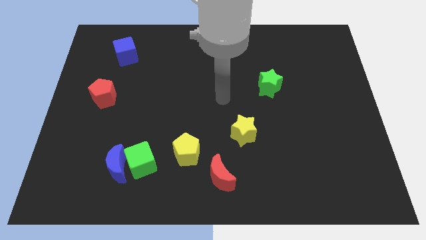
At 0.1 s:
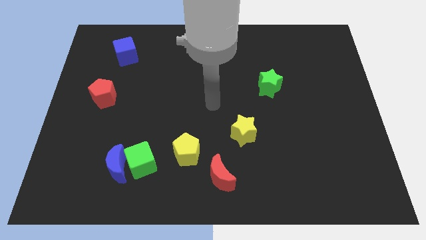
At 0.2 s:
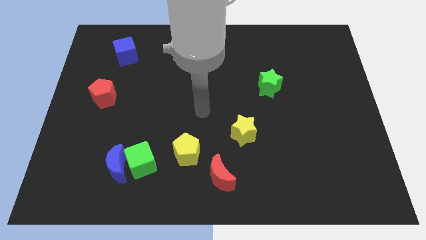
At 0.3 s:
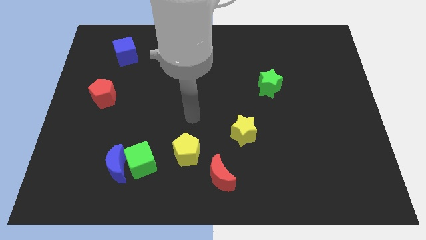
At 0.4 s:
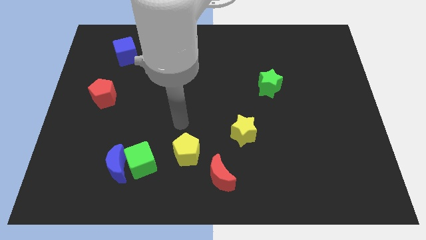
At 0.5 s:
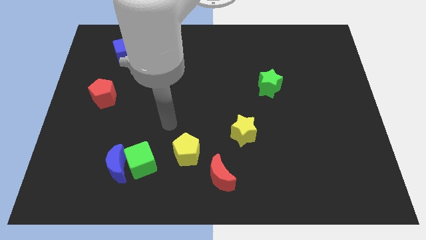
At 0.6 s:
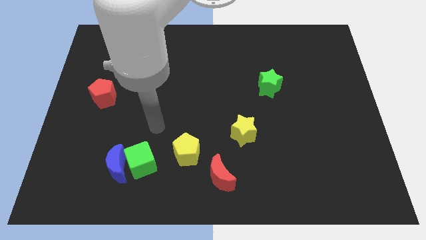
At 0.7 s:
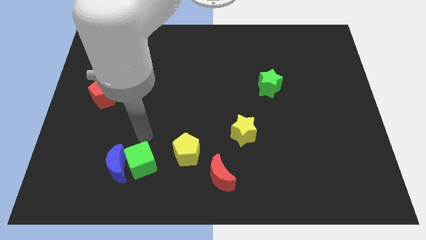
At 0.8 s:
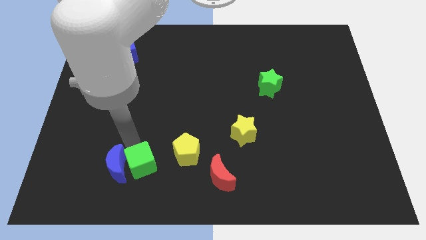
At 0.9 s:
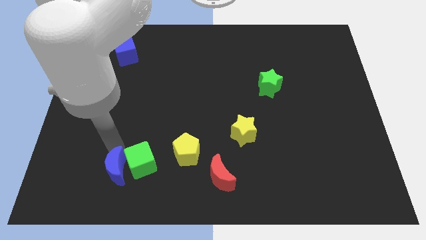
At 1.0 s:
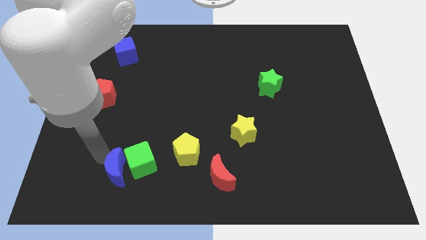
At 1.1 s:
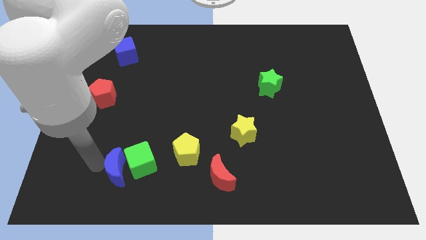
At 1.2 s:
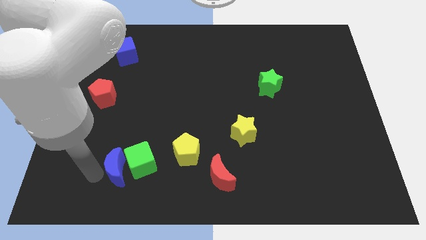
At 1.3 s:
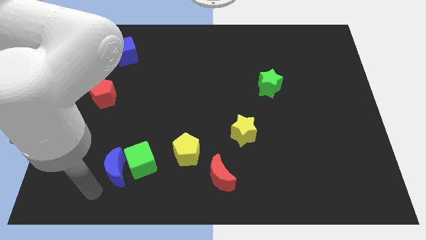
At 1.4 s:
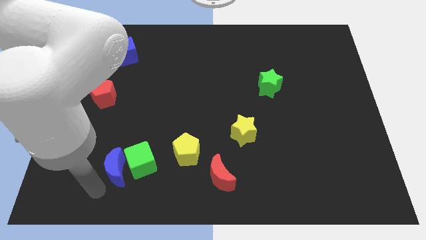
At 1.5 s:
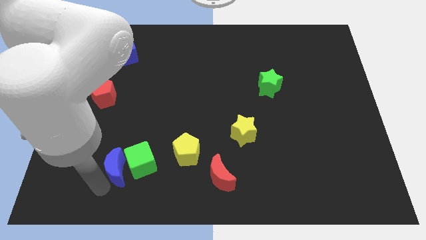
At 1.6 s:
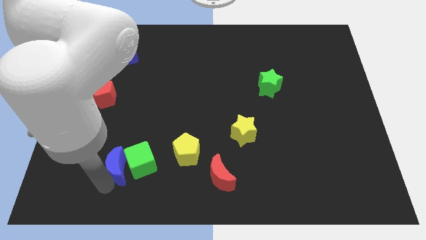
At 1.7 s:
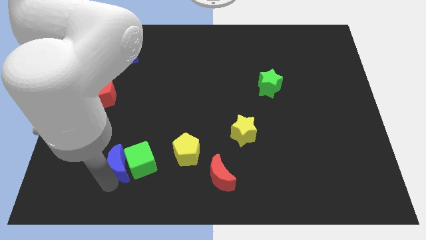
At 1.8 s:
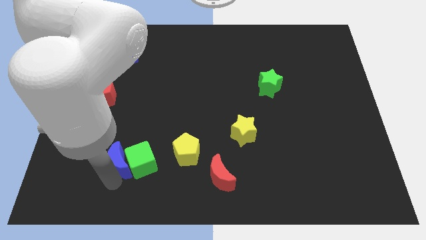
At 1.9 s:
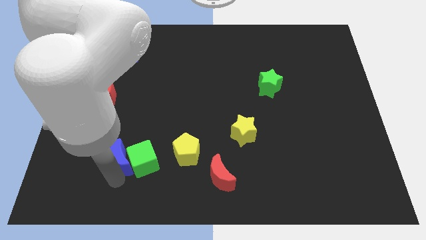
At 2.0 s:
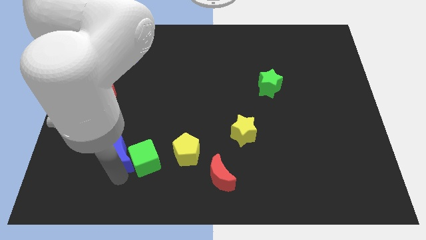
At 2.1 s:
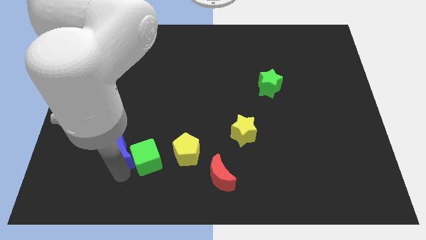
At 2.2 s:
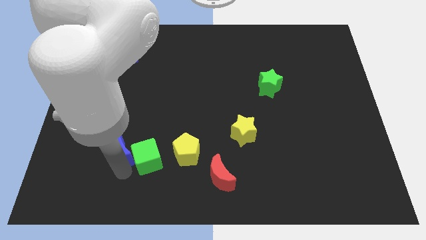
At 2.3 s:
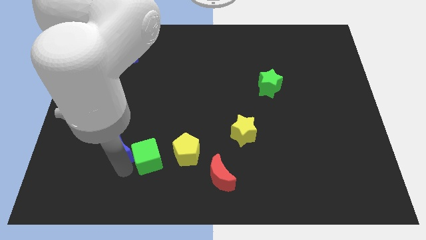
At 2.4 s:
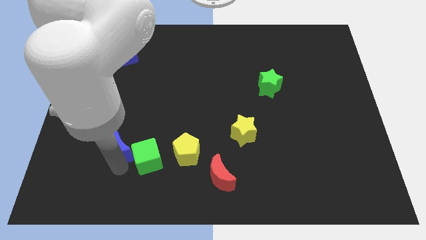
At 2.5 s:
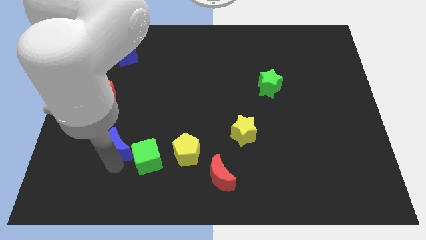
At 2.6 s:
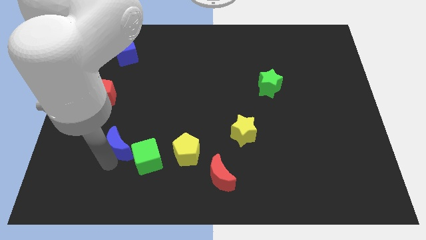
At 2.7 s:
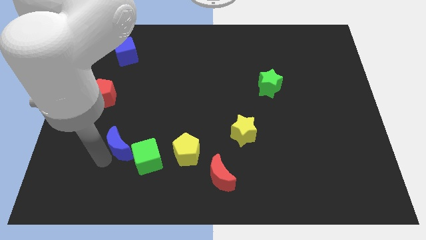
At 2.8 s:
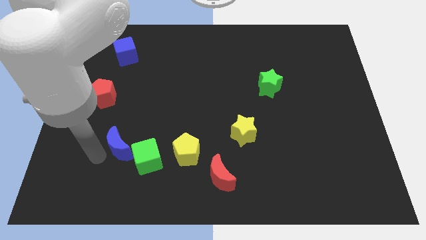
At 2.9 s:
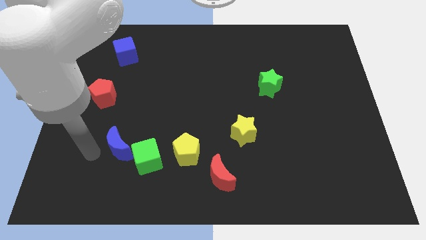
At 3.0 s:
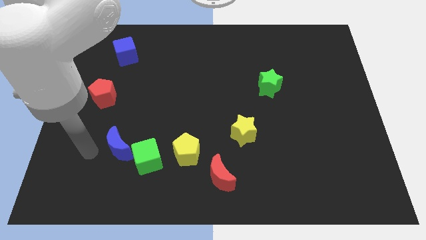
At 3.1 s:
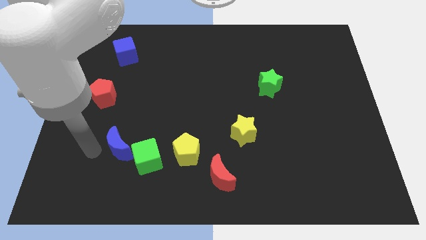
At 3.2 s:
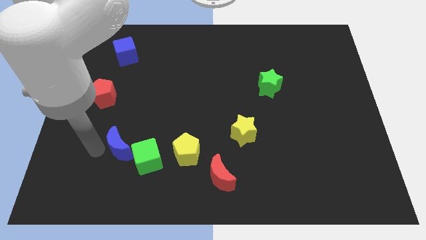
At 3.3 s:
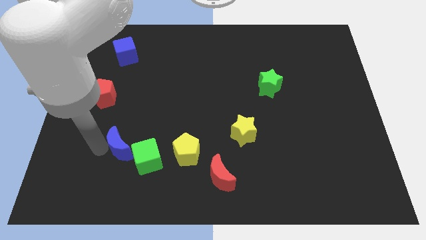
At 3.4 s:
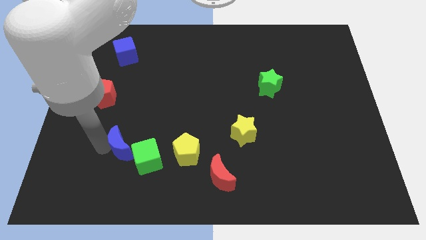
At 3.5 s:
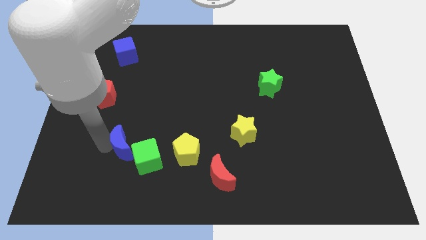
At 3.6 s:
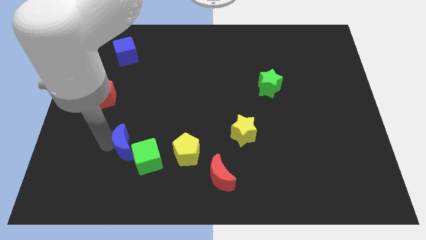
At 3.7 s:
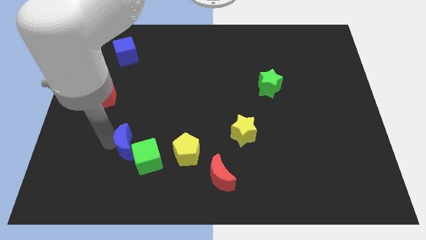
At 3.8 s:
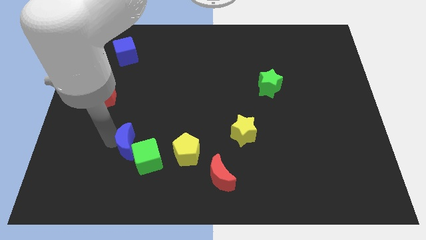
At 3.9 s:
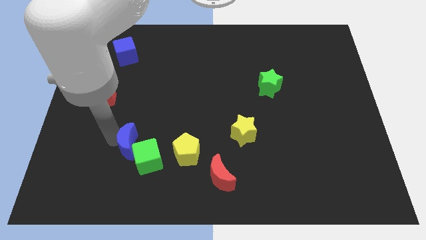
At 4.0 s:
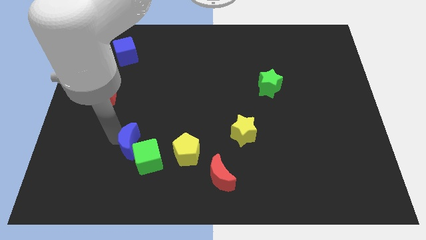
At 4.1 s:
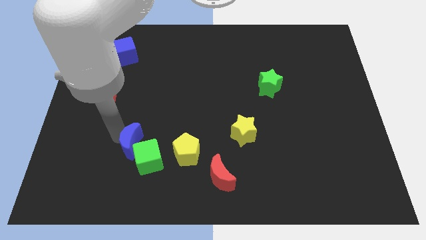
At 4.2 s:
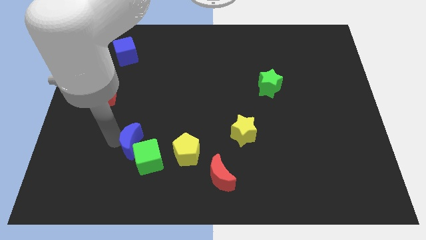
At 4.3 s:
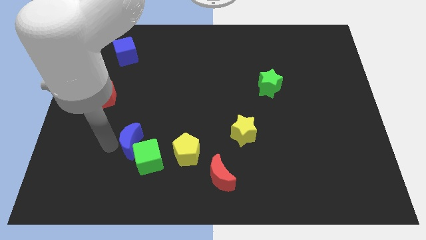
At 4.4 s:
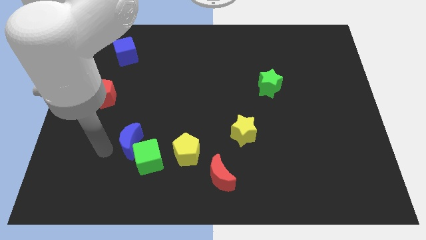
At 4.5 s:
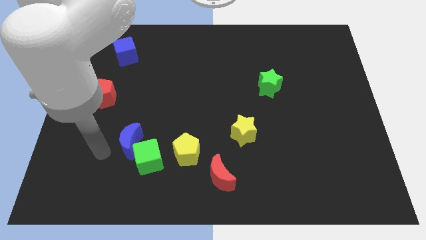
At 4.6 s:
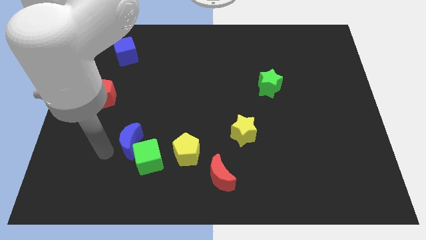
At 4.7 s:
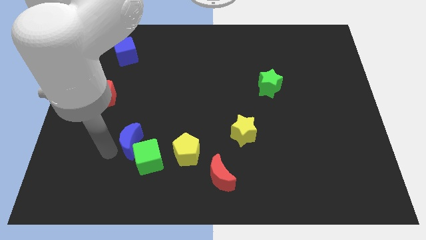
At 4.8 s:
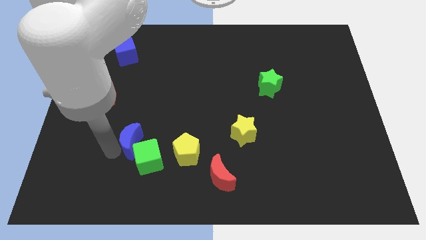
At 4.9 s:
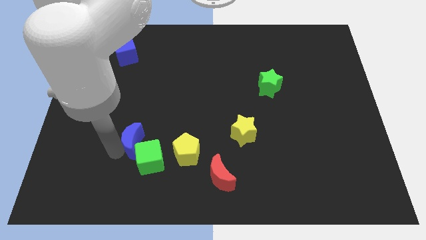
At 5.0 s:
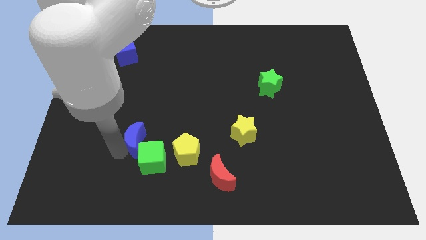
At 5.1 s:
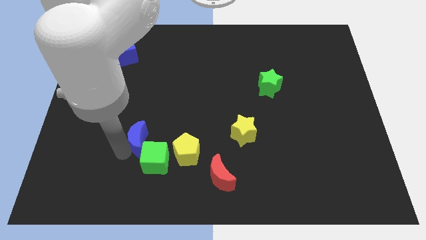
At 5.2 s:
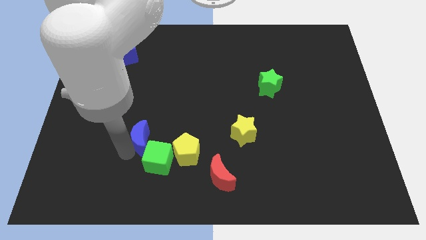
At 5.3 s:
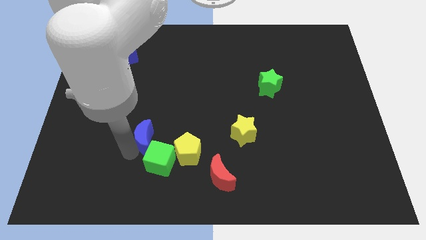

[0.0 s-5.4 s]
put the blue moon to the top left side of the yellow pentagon

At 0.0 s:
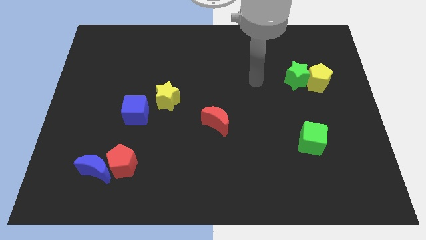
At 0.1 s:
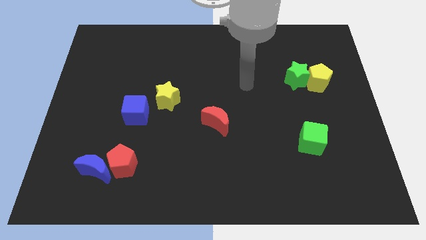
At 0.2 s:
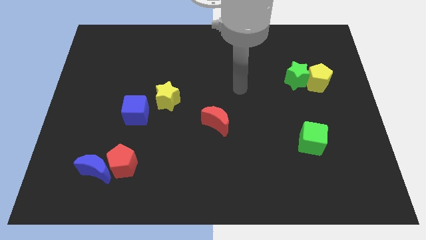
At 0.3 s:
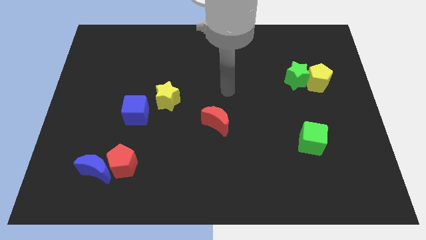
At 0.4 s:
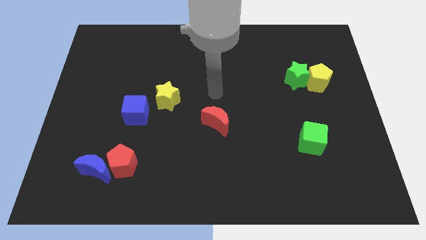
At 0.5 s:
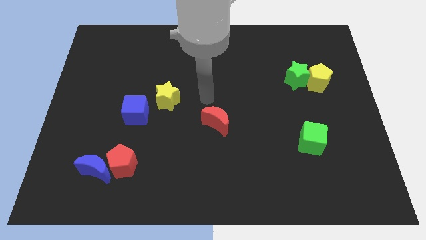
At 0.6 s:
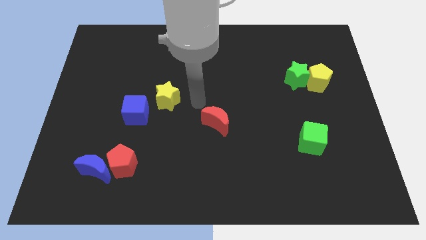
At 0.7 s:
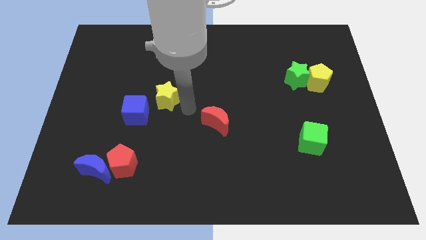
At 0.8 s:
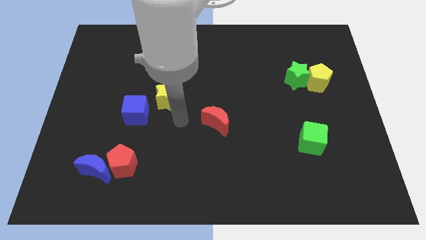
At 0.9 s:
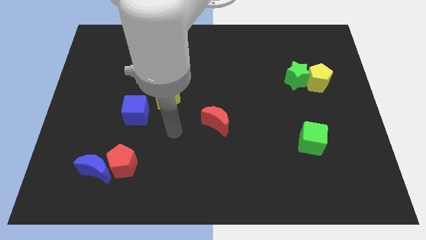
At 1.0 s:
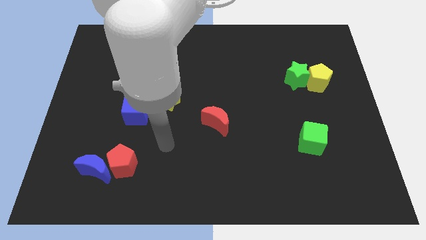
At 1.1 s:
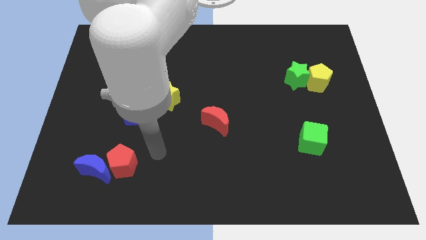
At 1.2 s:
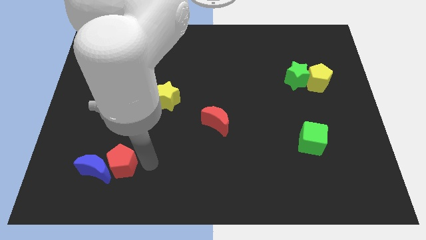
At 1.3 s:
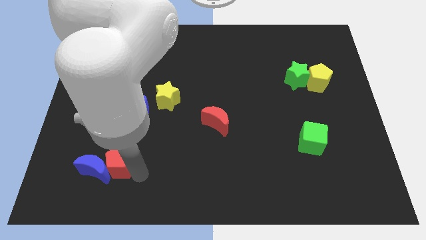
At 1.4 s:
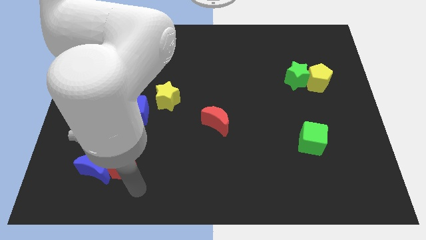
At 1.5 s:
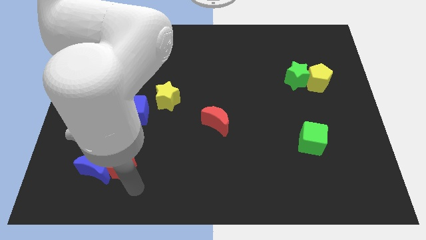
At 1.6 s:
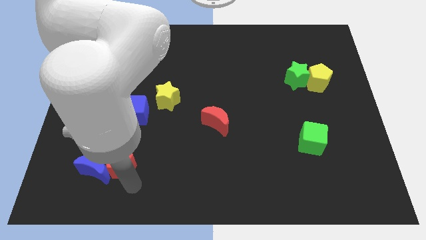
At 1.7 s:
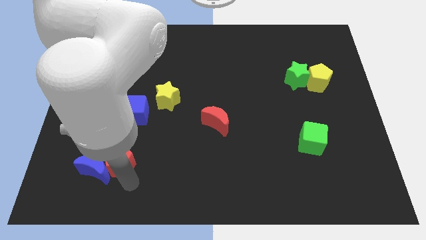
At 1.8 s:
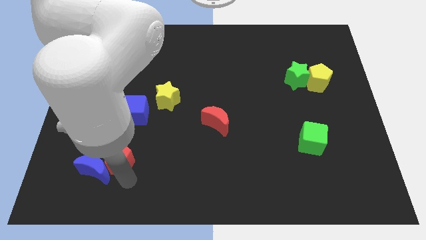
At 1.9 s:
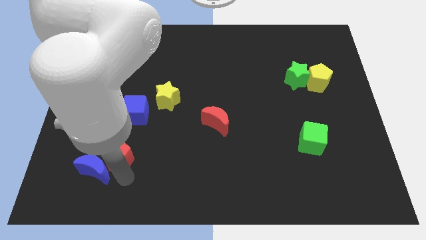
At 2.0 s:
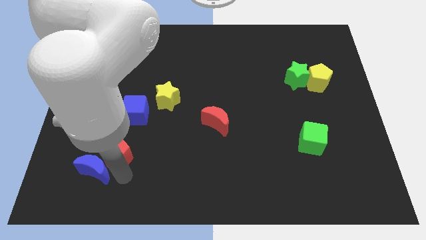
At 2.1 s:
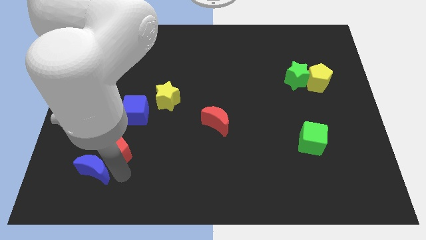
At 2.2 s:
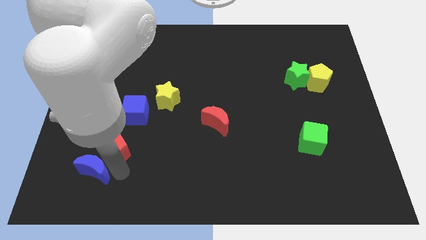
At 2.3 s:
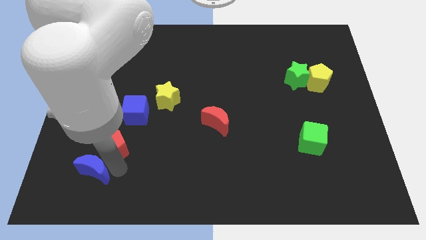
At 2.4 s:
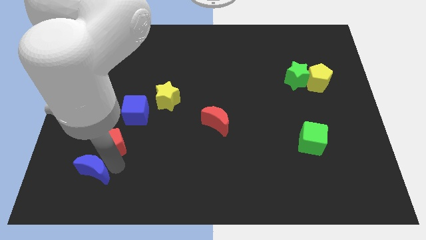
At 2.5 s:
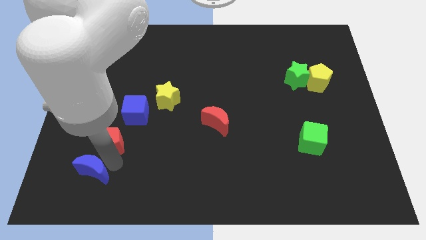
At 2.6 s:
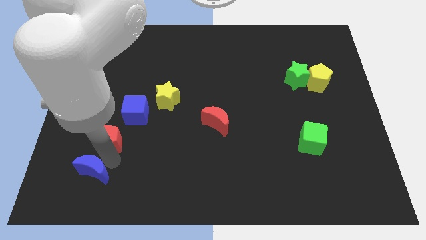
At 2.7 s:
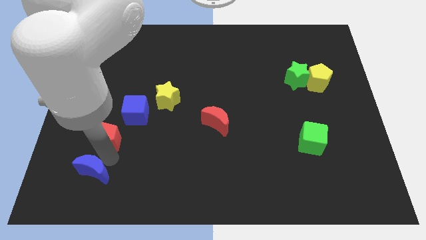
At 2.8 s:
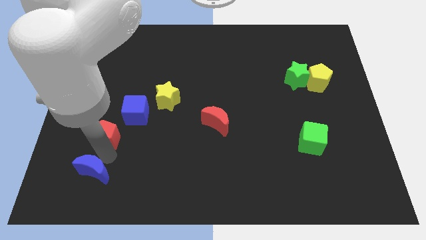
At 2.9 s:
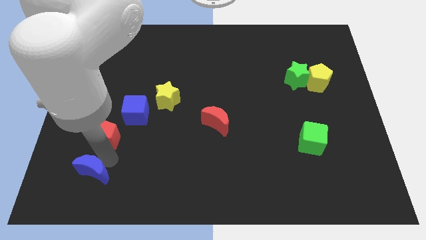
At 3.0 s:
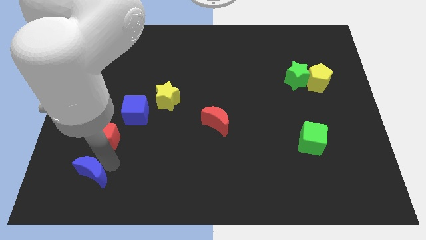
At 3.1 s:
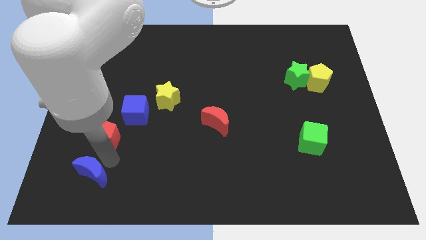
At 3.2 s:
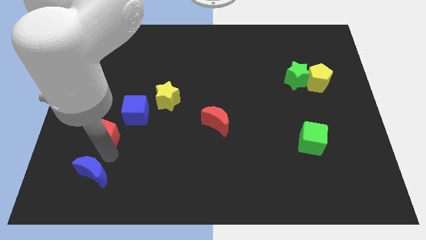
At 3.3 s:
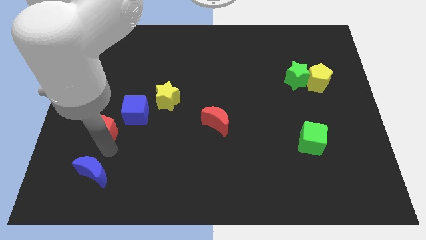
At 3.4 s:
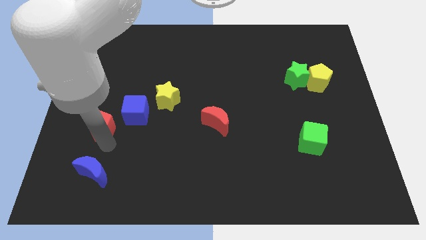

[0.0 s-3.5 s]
put the red pentagon to the left side of the blue cube
